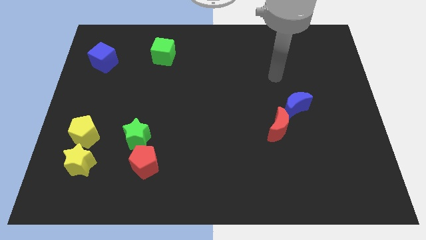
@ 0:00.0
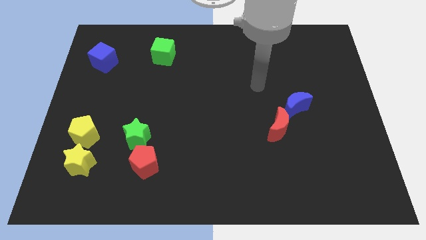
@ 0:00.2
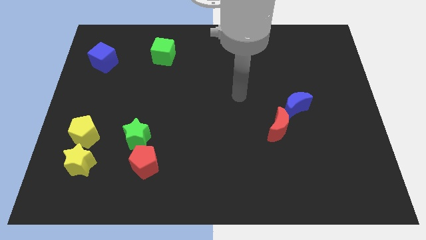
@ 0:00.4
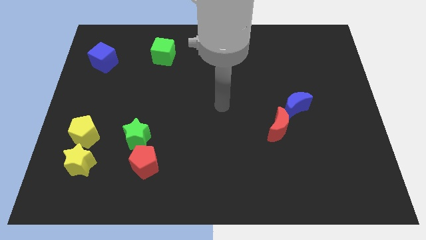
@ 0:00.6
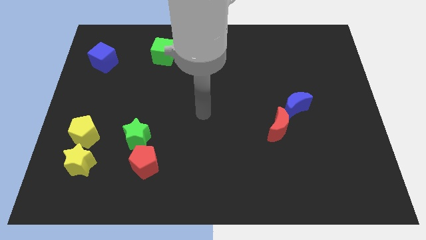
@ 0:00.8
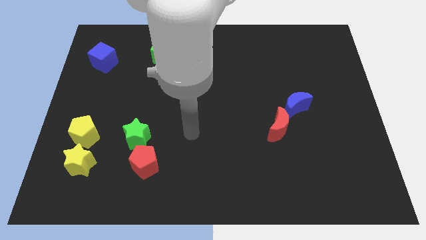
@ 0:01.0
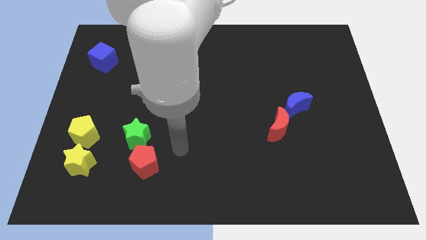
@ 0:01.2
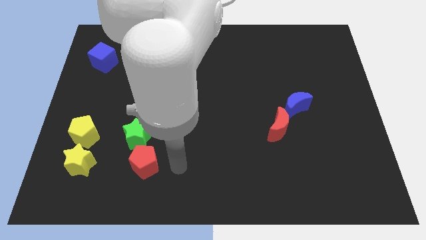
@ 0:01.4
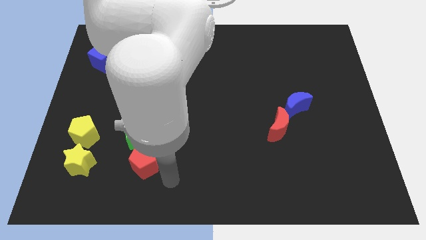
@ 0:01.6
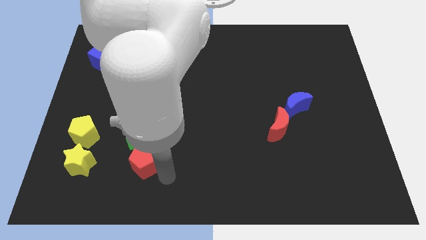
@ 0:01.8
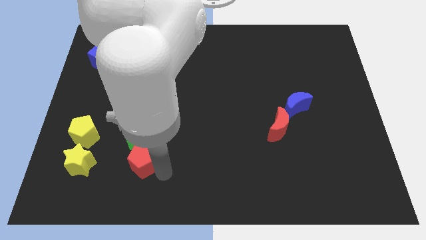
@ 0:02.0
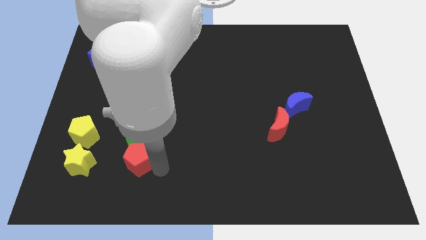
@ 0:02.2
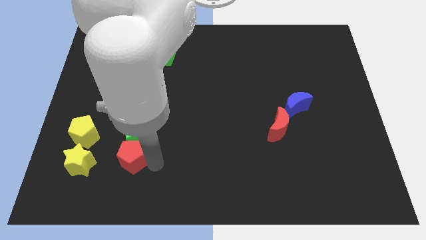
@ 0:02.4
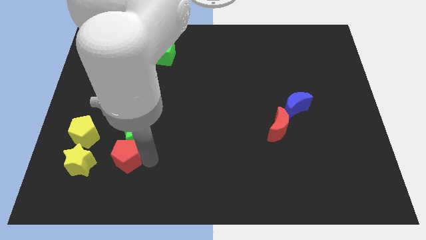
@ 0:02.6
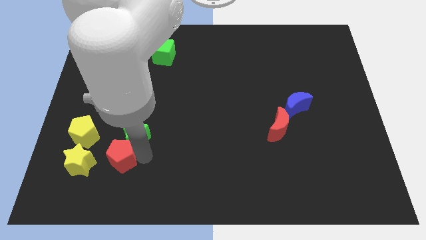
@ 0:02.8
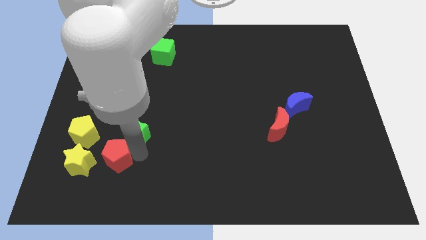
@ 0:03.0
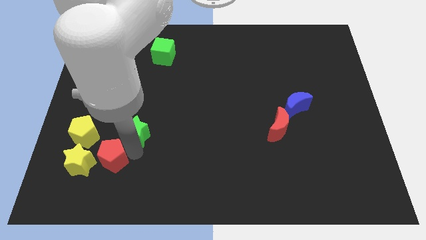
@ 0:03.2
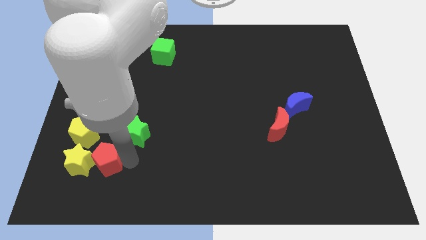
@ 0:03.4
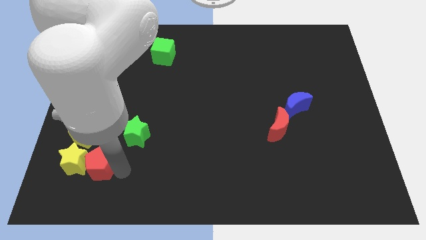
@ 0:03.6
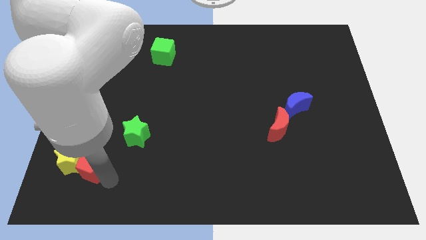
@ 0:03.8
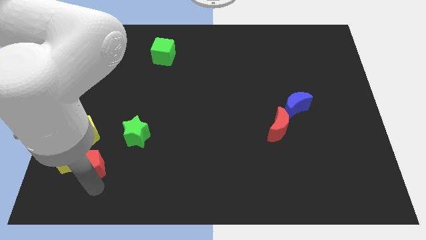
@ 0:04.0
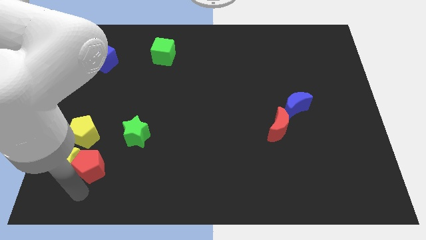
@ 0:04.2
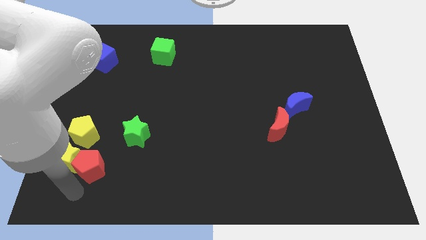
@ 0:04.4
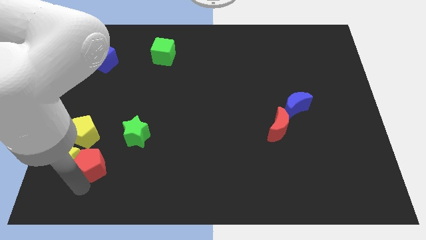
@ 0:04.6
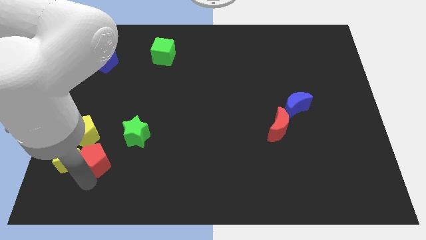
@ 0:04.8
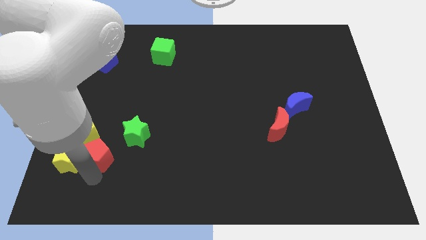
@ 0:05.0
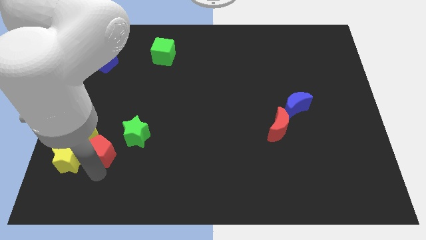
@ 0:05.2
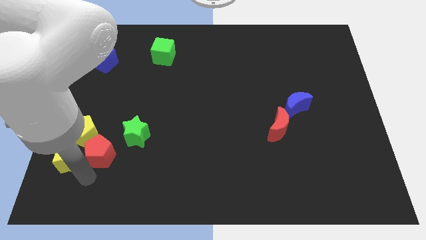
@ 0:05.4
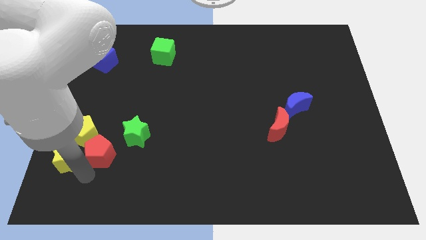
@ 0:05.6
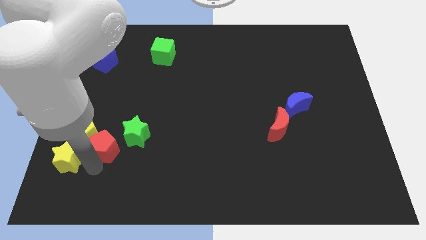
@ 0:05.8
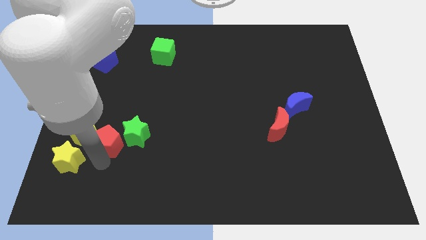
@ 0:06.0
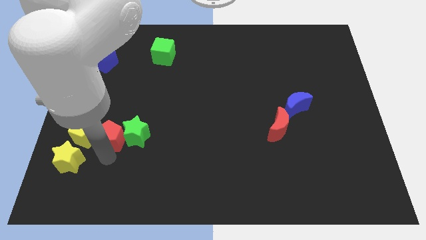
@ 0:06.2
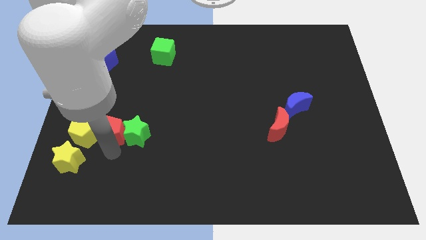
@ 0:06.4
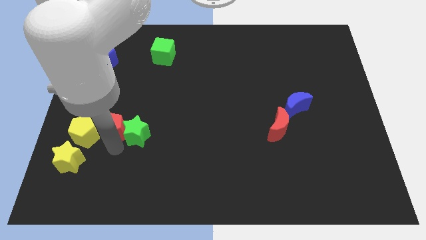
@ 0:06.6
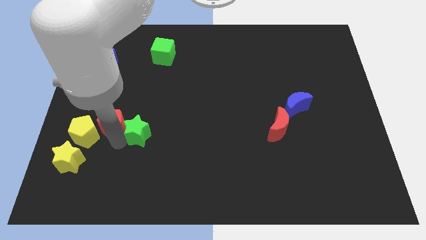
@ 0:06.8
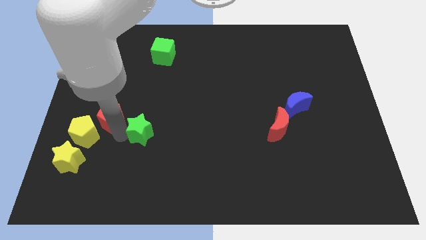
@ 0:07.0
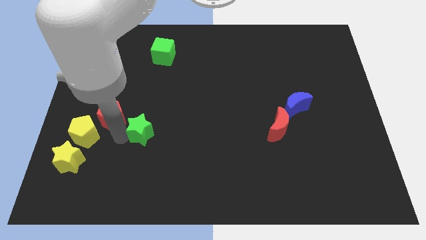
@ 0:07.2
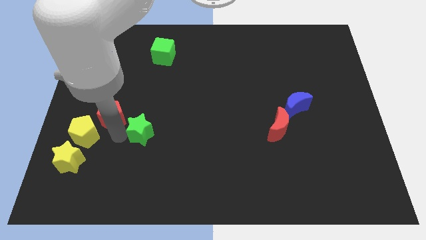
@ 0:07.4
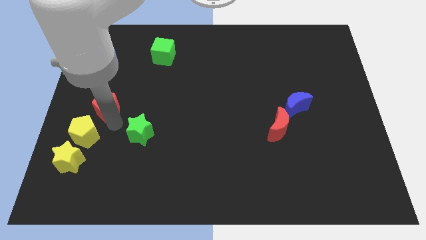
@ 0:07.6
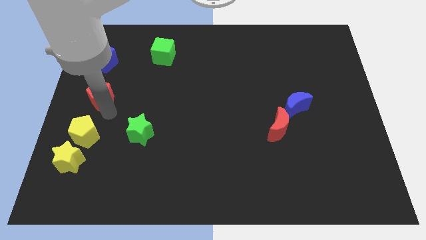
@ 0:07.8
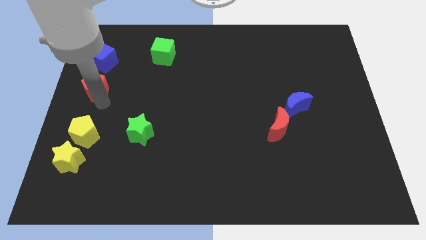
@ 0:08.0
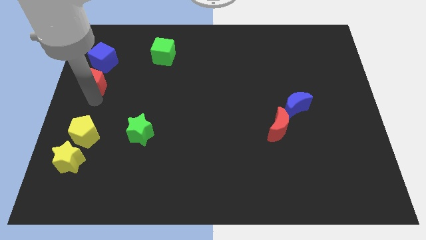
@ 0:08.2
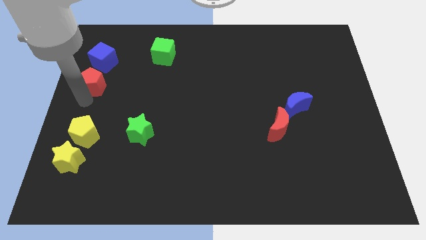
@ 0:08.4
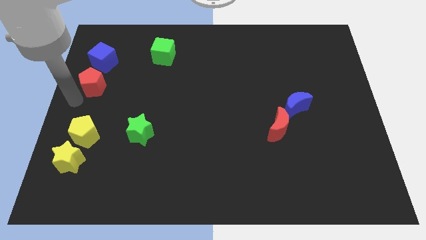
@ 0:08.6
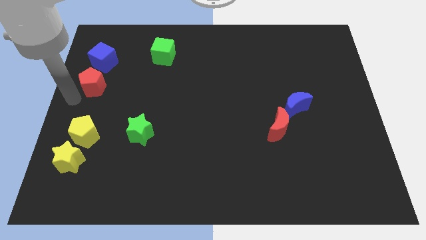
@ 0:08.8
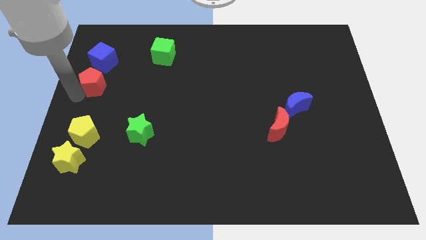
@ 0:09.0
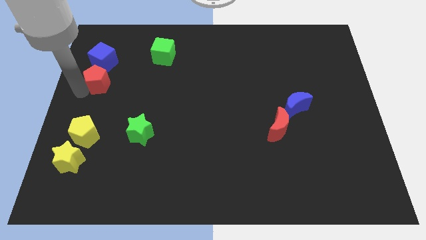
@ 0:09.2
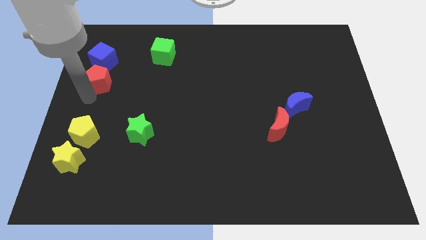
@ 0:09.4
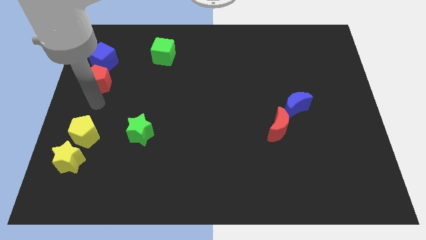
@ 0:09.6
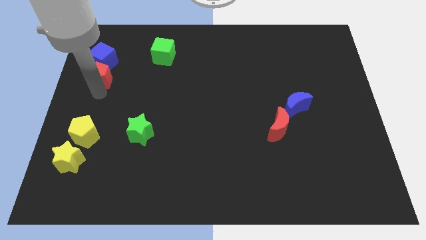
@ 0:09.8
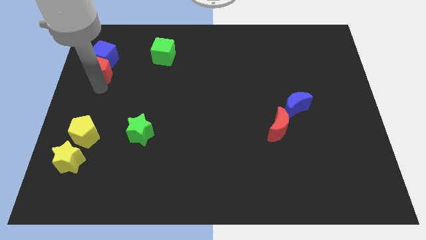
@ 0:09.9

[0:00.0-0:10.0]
put the red pentagon close to the blue cube

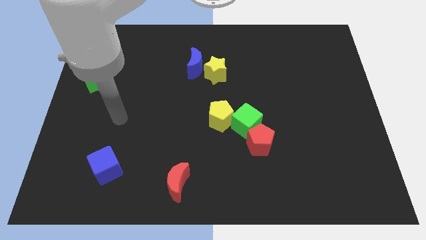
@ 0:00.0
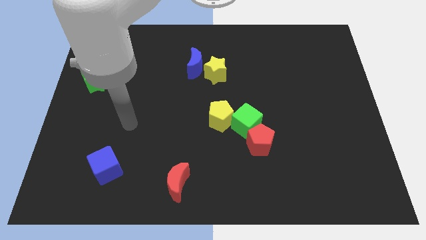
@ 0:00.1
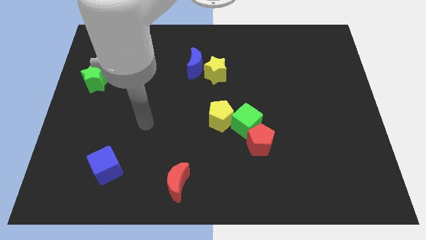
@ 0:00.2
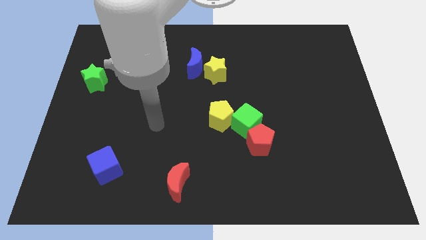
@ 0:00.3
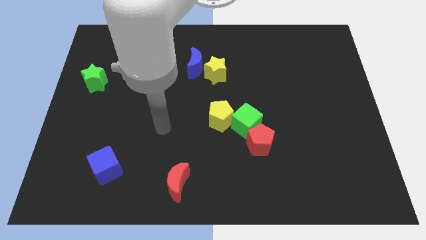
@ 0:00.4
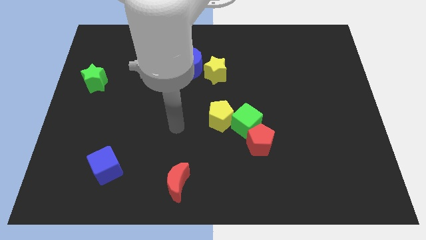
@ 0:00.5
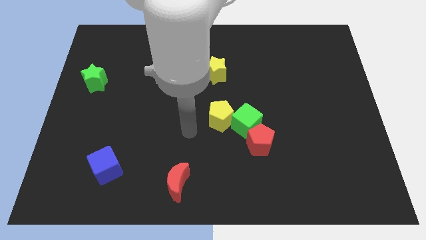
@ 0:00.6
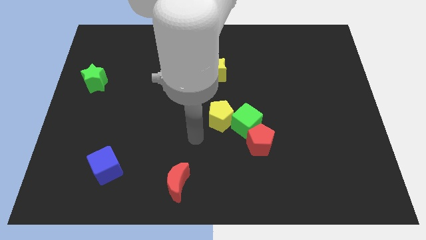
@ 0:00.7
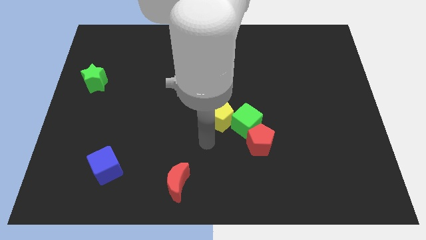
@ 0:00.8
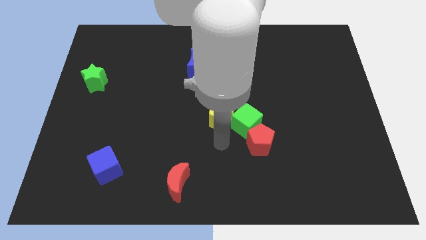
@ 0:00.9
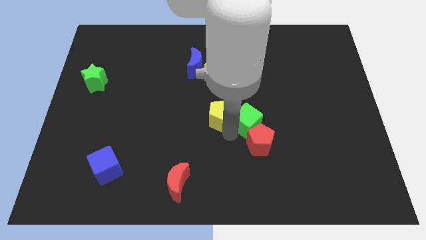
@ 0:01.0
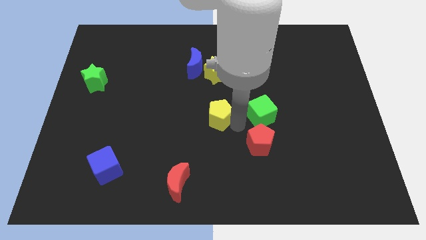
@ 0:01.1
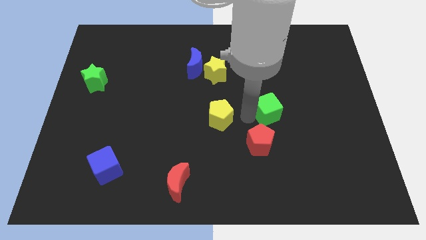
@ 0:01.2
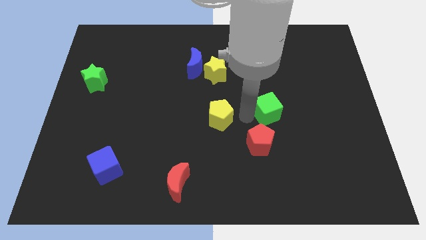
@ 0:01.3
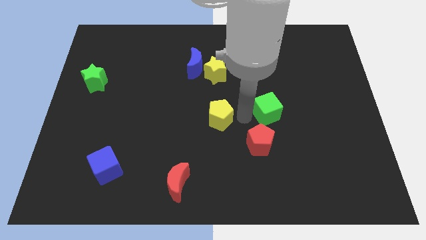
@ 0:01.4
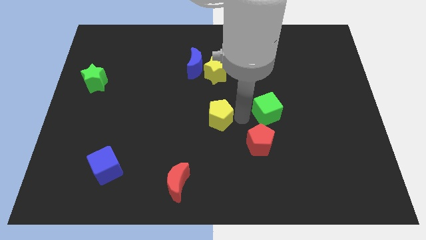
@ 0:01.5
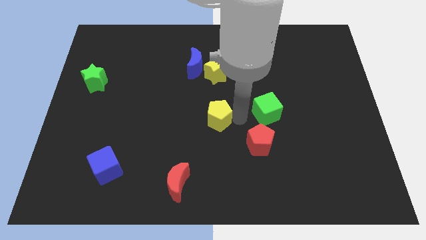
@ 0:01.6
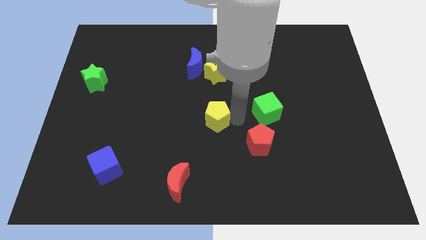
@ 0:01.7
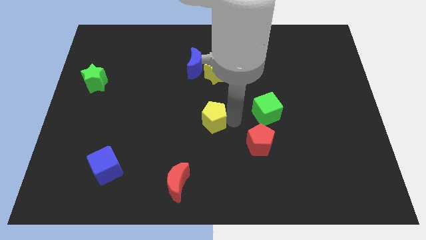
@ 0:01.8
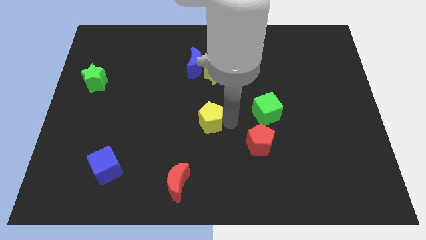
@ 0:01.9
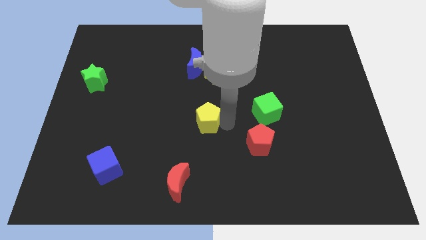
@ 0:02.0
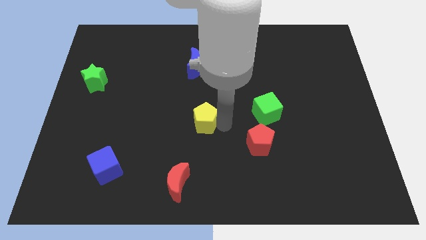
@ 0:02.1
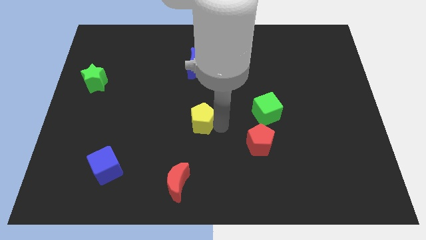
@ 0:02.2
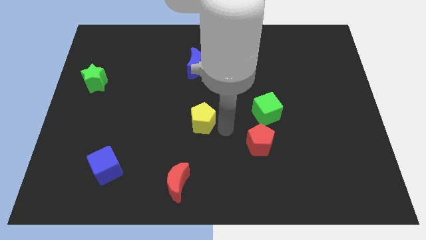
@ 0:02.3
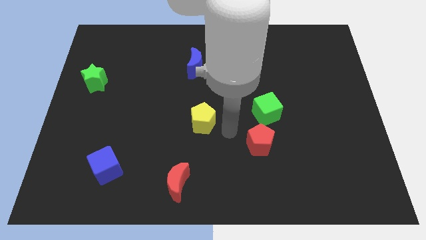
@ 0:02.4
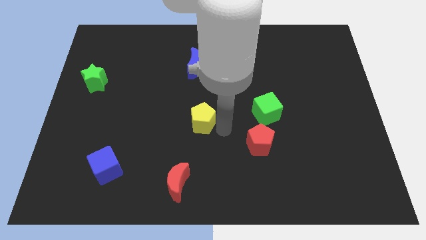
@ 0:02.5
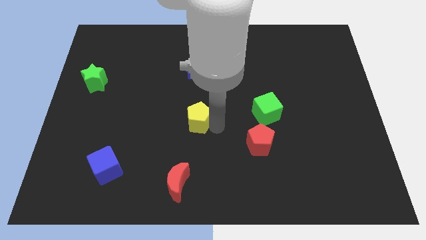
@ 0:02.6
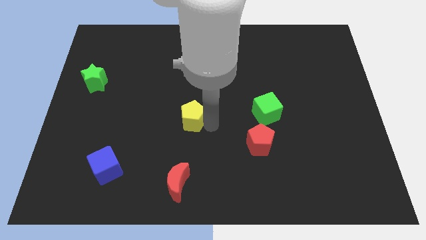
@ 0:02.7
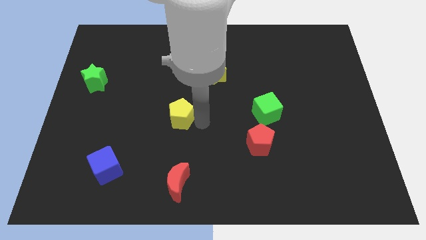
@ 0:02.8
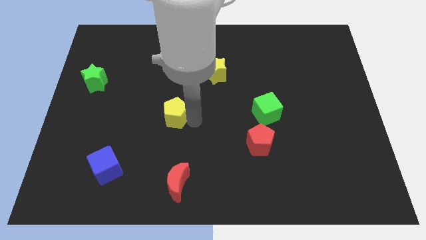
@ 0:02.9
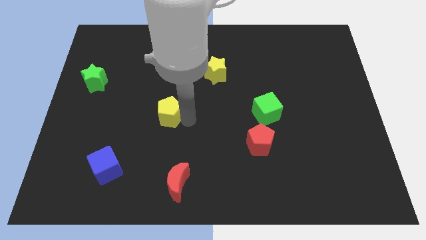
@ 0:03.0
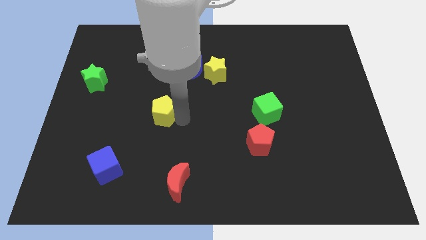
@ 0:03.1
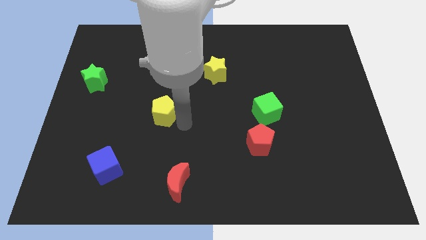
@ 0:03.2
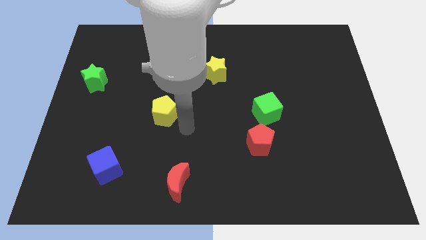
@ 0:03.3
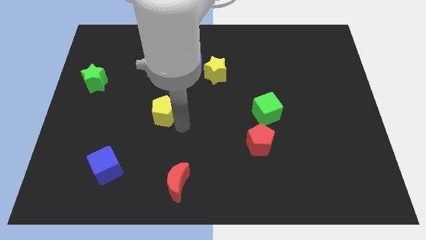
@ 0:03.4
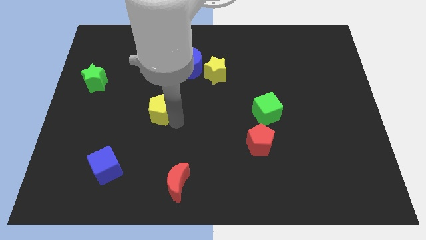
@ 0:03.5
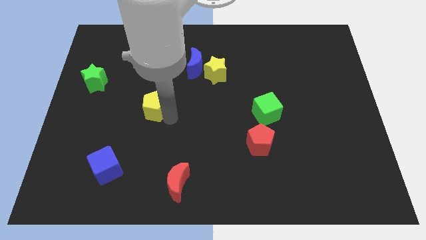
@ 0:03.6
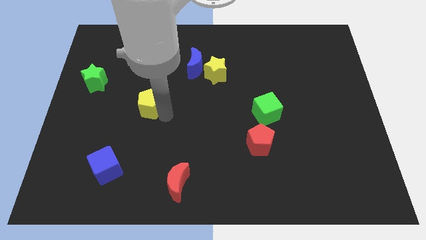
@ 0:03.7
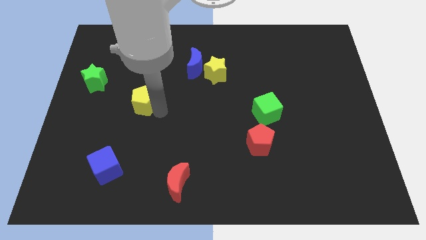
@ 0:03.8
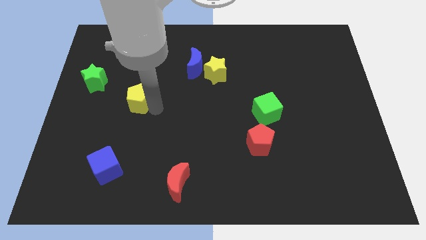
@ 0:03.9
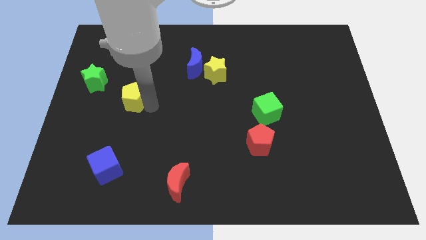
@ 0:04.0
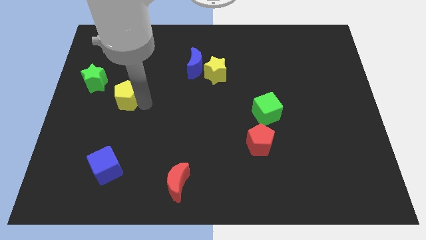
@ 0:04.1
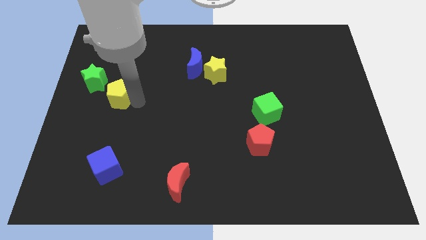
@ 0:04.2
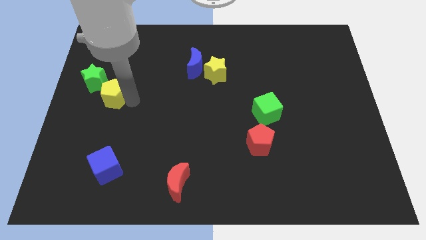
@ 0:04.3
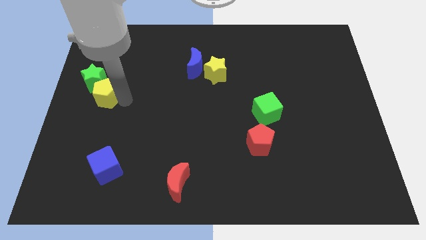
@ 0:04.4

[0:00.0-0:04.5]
push the yellow pentagon towards the green star
